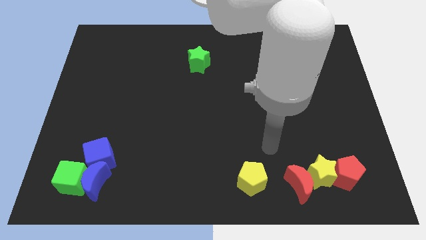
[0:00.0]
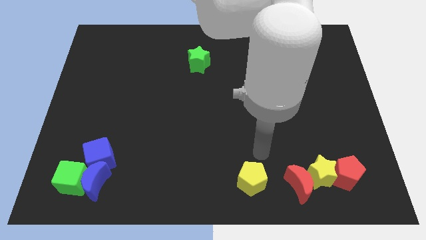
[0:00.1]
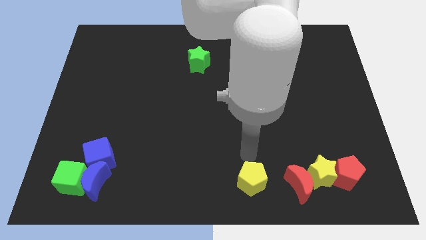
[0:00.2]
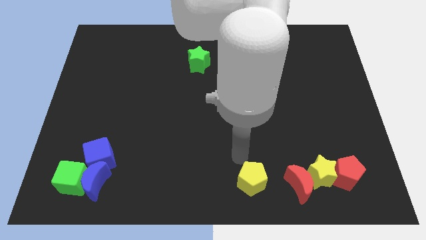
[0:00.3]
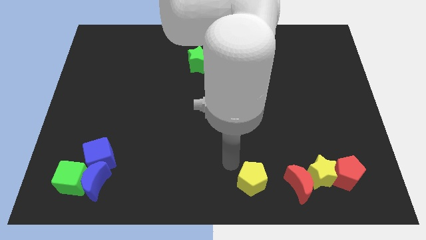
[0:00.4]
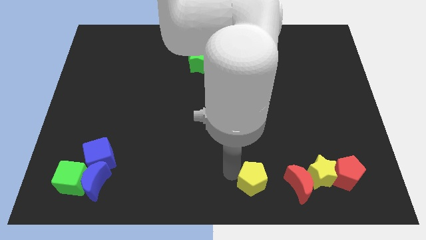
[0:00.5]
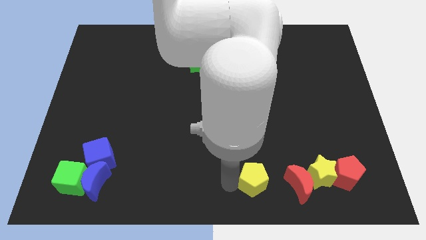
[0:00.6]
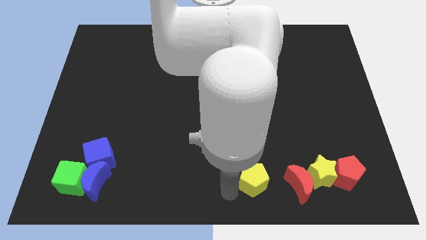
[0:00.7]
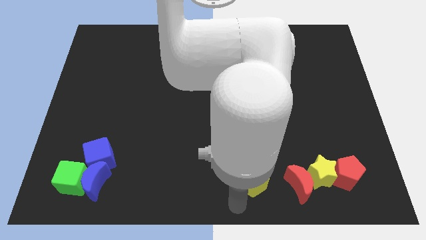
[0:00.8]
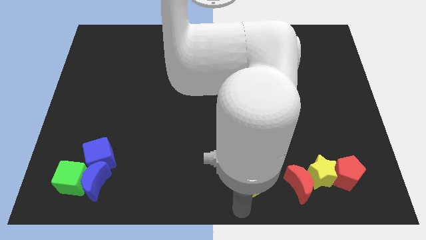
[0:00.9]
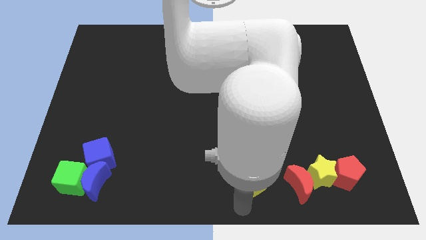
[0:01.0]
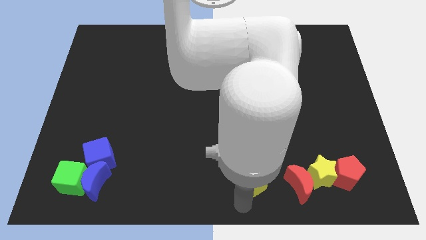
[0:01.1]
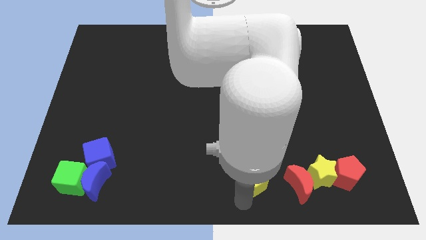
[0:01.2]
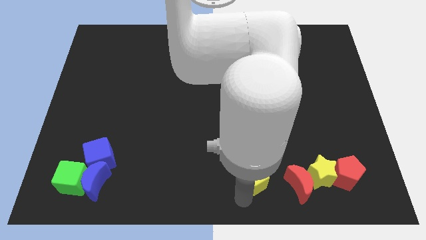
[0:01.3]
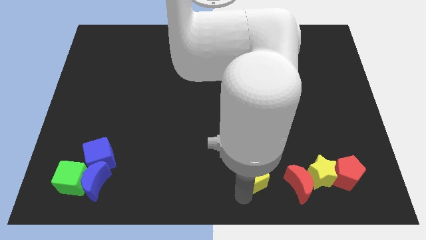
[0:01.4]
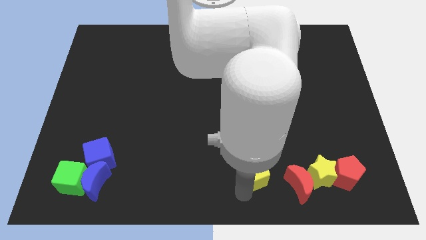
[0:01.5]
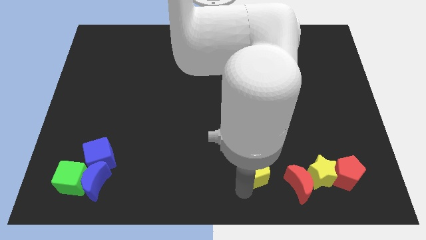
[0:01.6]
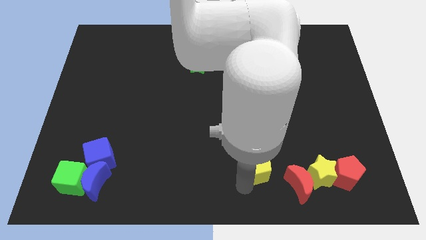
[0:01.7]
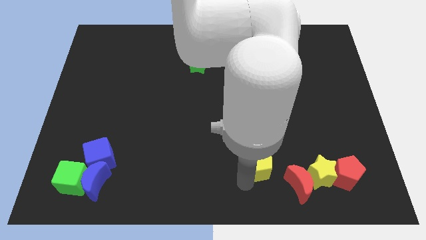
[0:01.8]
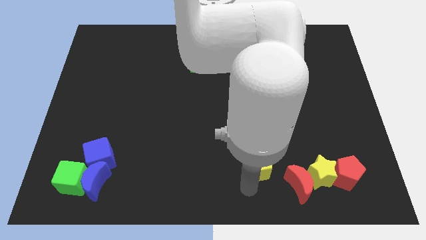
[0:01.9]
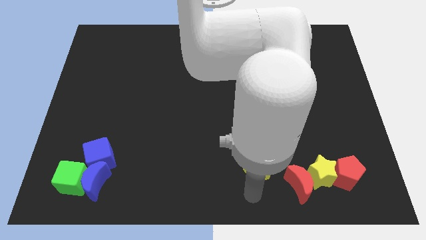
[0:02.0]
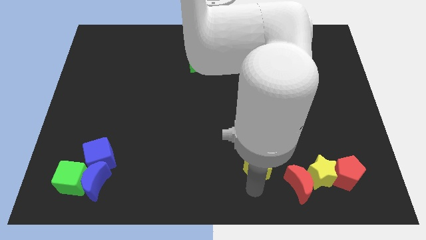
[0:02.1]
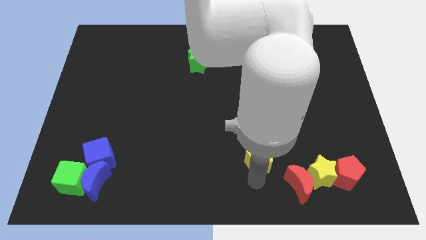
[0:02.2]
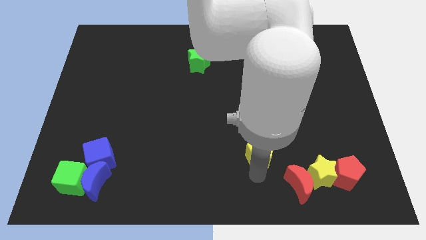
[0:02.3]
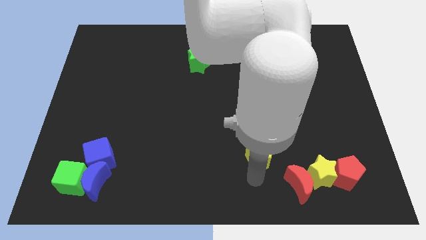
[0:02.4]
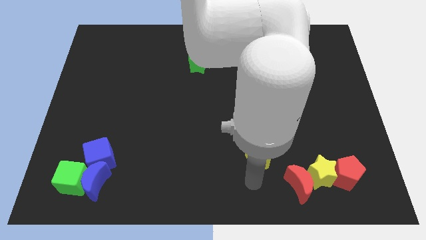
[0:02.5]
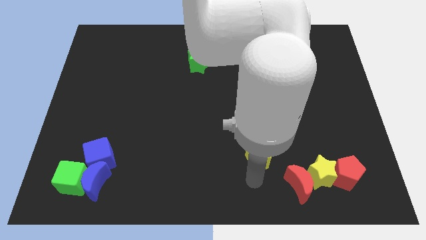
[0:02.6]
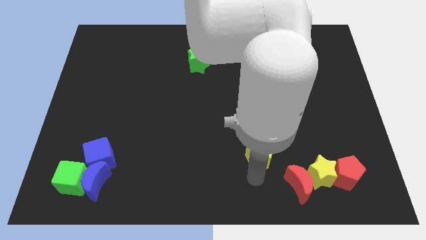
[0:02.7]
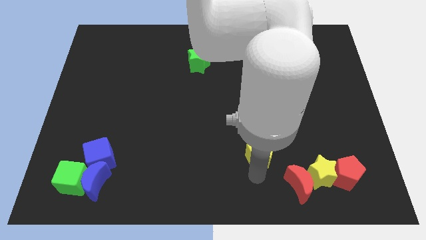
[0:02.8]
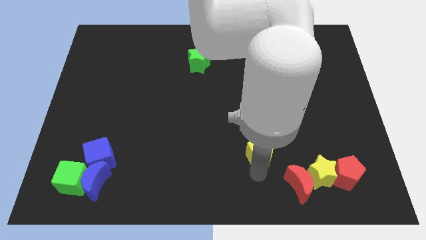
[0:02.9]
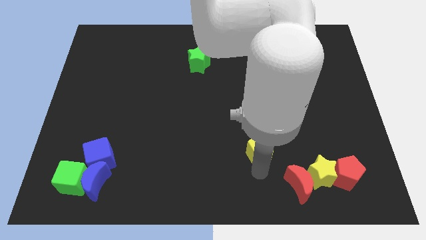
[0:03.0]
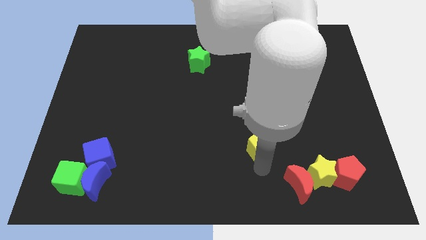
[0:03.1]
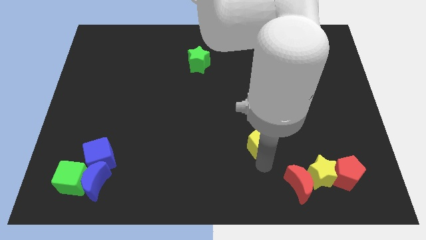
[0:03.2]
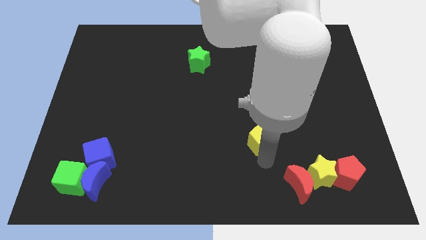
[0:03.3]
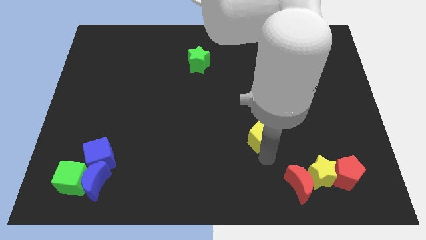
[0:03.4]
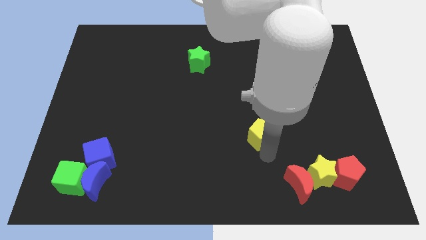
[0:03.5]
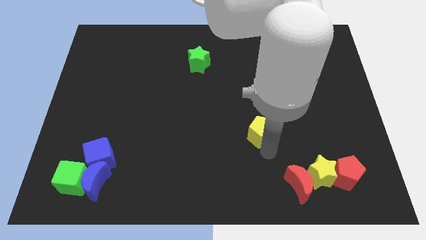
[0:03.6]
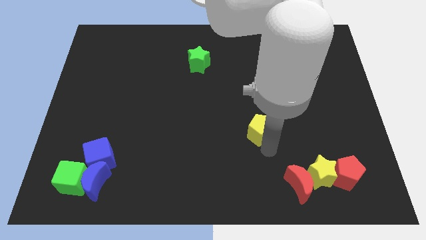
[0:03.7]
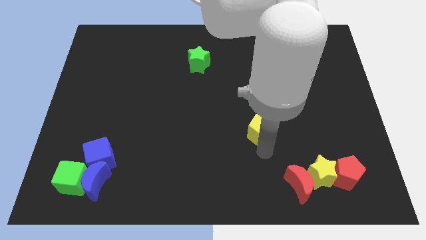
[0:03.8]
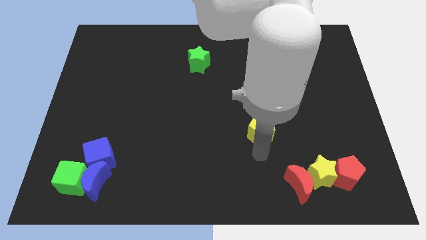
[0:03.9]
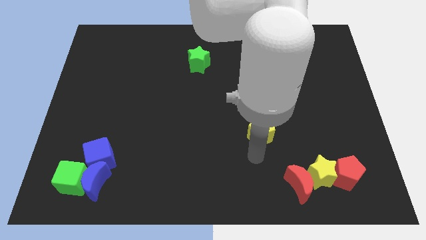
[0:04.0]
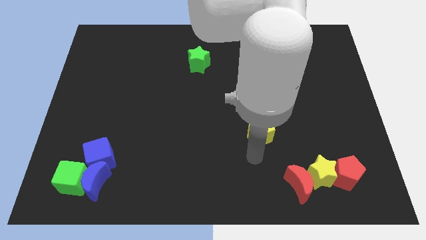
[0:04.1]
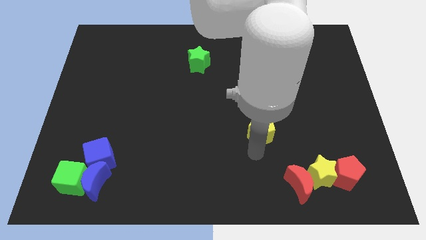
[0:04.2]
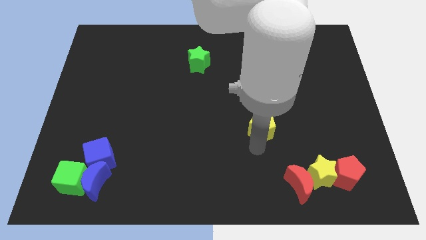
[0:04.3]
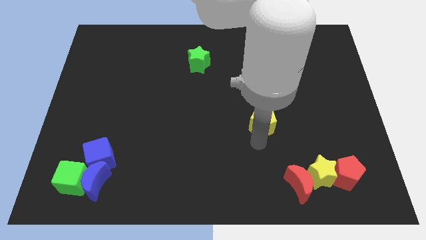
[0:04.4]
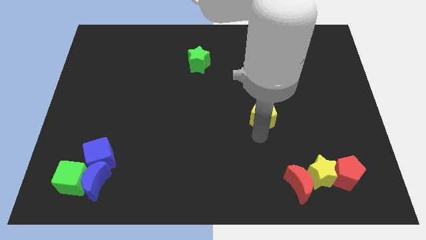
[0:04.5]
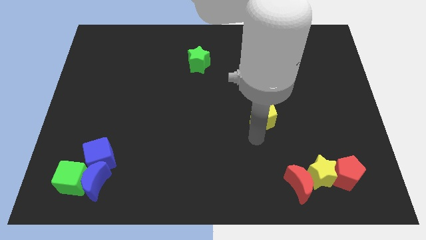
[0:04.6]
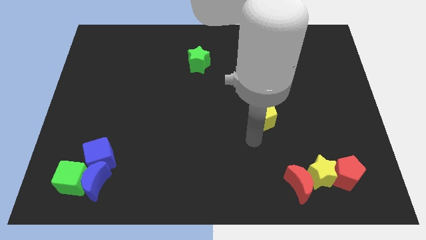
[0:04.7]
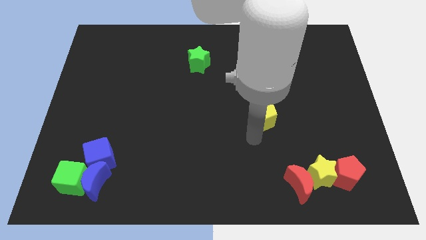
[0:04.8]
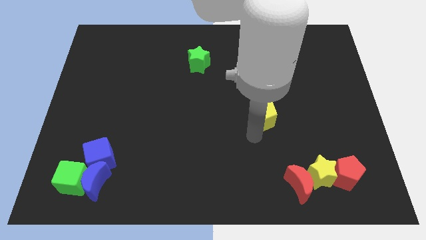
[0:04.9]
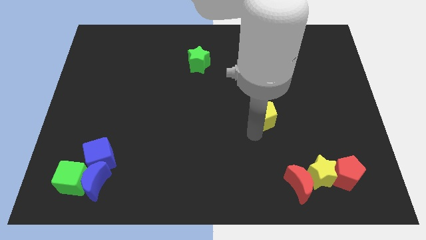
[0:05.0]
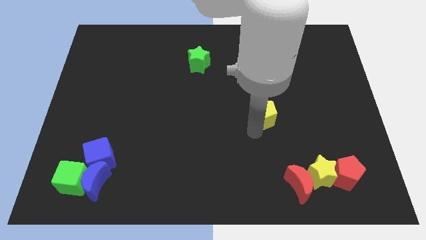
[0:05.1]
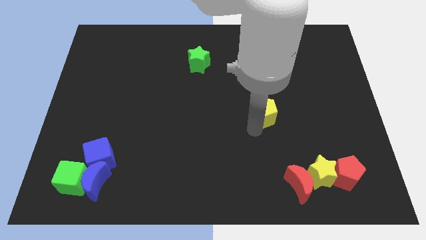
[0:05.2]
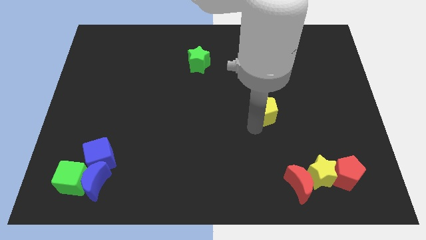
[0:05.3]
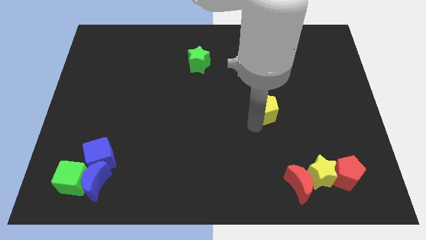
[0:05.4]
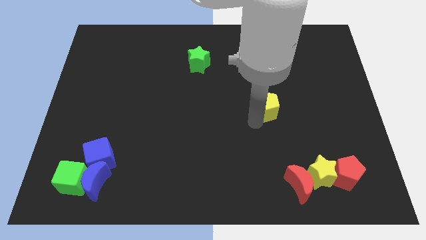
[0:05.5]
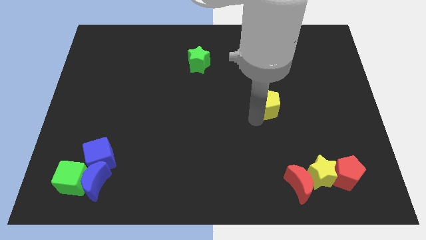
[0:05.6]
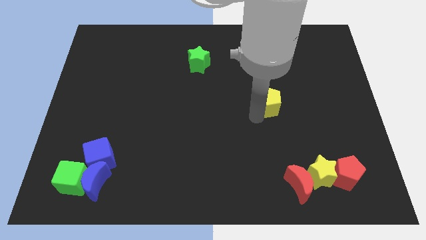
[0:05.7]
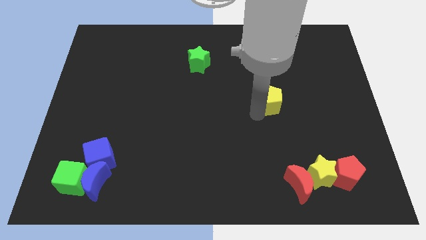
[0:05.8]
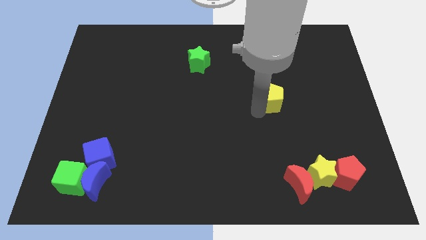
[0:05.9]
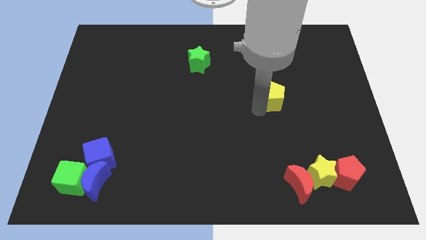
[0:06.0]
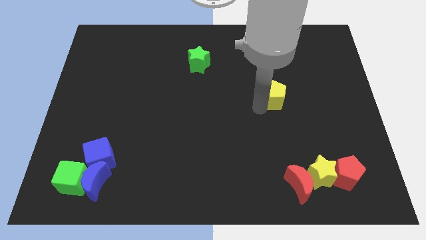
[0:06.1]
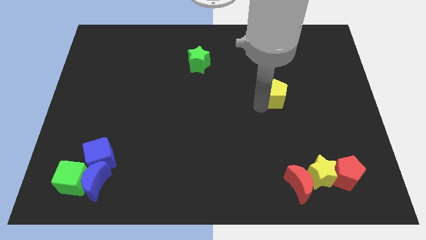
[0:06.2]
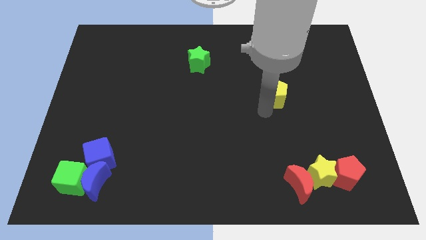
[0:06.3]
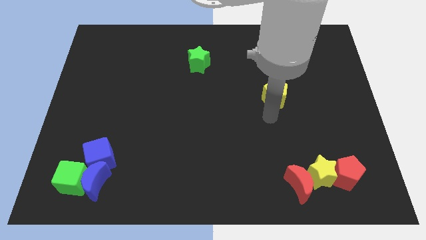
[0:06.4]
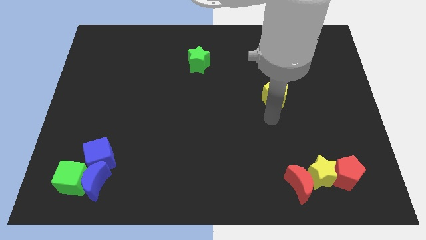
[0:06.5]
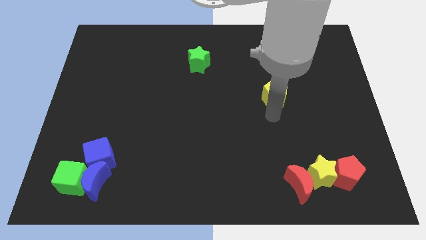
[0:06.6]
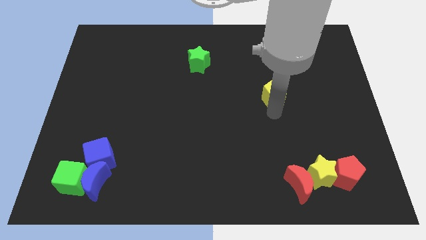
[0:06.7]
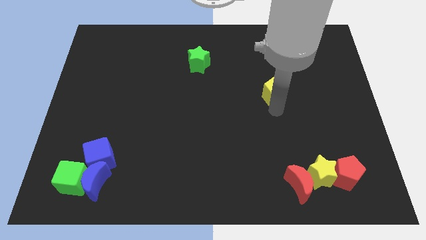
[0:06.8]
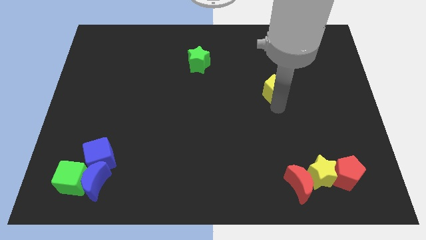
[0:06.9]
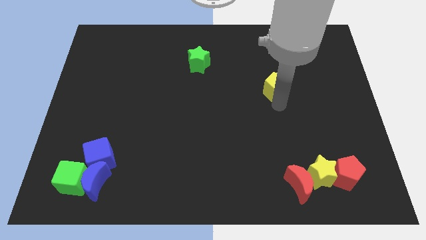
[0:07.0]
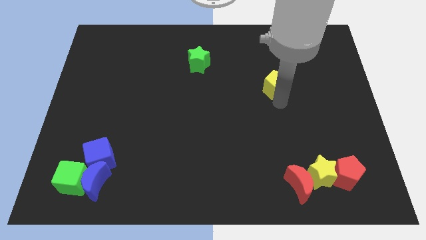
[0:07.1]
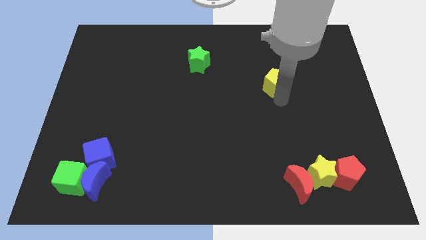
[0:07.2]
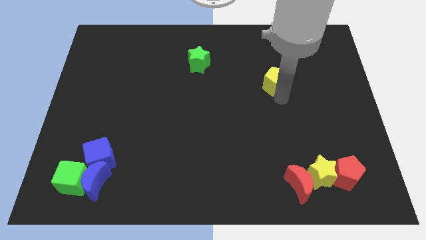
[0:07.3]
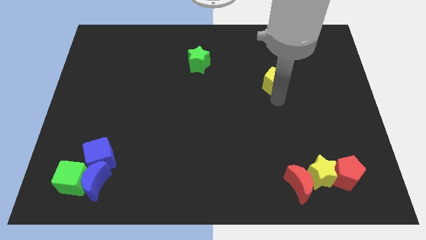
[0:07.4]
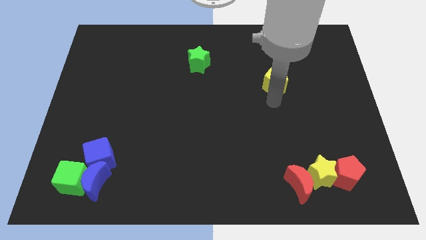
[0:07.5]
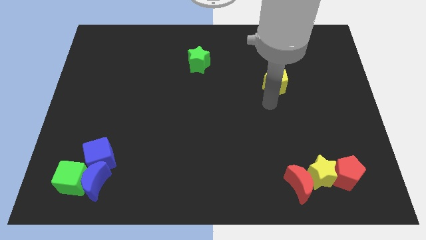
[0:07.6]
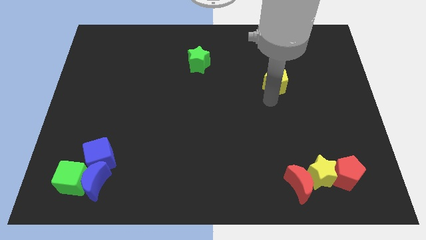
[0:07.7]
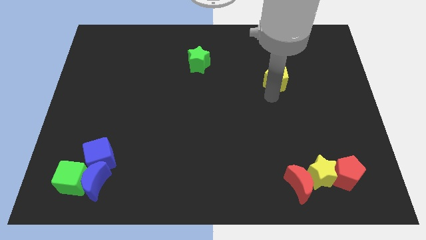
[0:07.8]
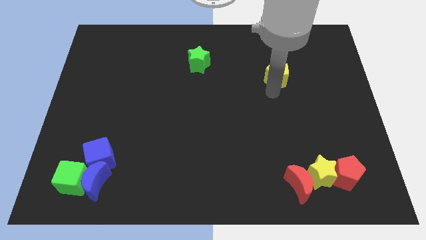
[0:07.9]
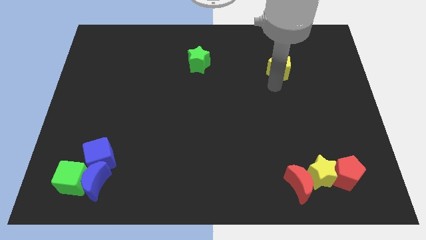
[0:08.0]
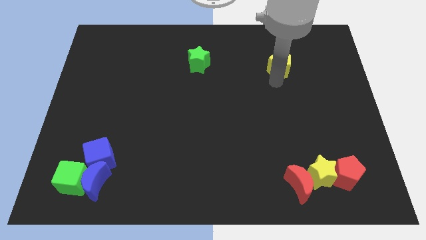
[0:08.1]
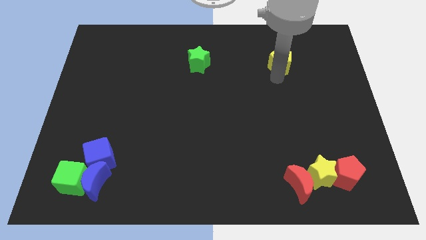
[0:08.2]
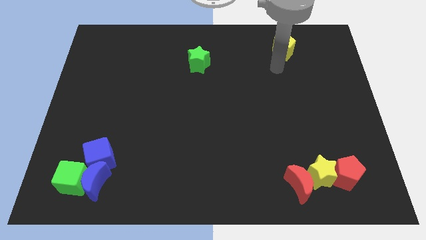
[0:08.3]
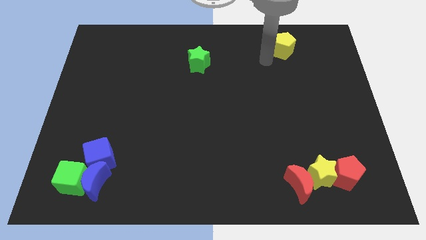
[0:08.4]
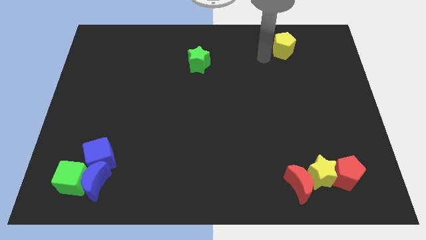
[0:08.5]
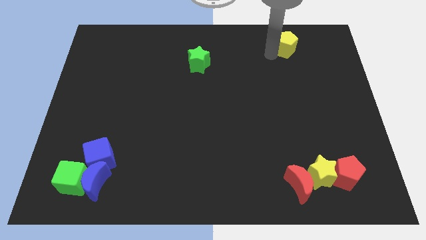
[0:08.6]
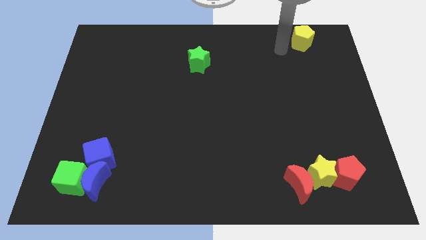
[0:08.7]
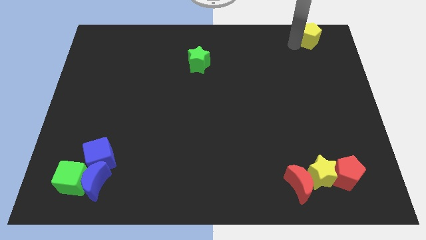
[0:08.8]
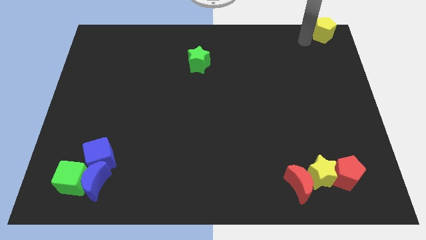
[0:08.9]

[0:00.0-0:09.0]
slide the yellow pentagon to the upper right corner
